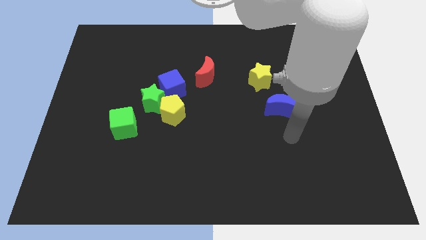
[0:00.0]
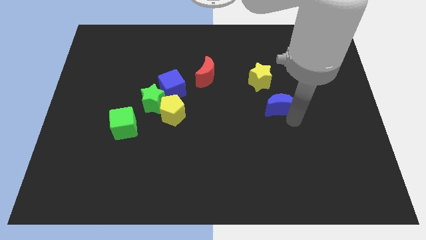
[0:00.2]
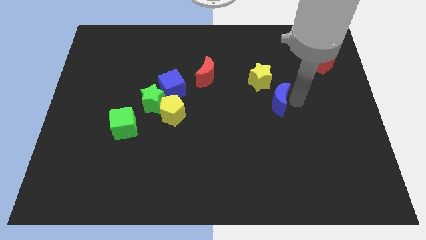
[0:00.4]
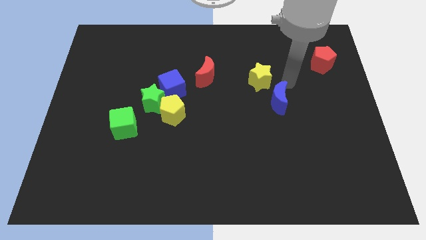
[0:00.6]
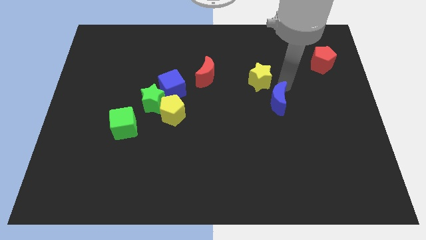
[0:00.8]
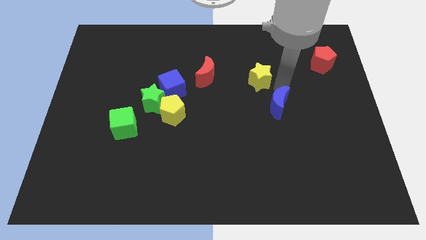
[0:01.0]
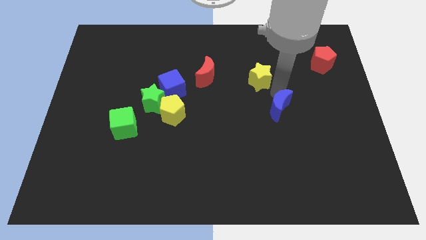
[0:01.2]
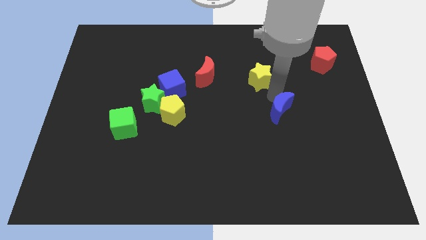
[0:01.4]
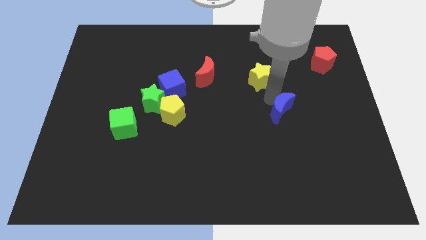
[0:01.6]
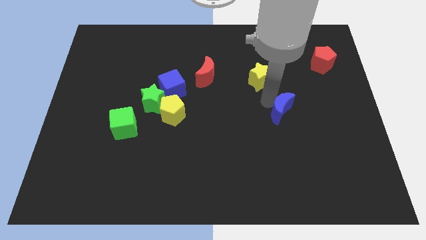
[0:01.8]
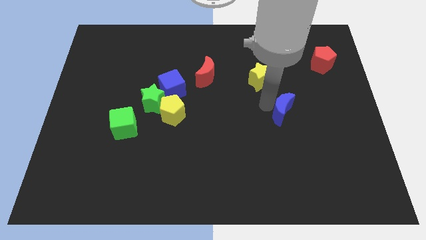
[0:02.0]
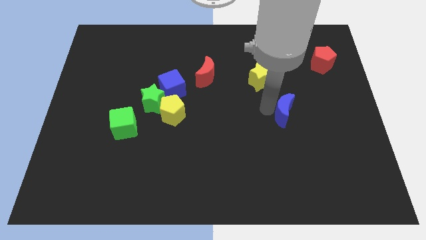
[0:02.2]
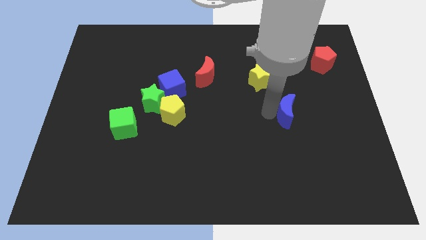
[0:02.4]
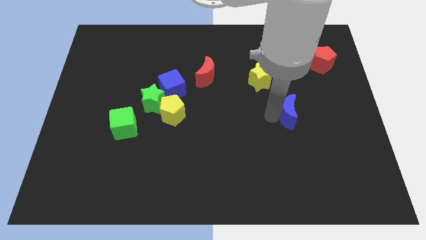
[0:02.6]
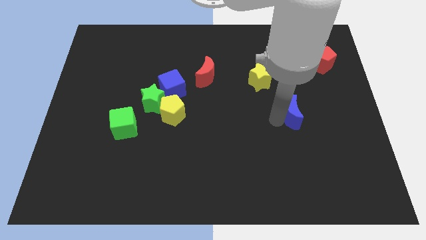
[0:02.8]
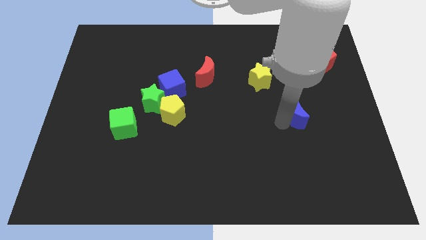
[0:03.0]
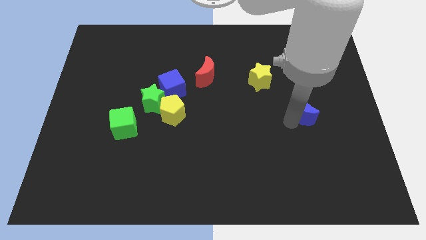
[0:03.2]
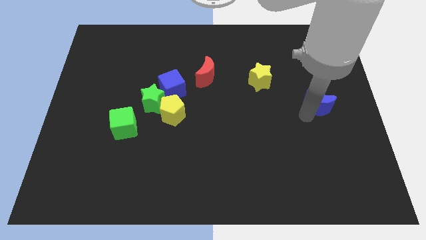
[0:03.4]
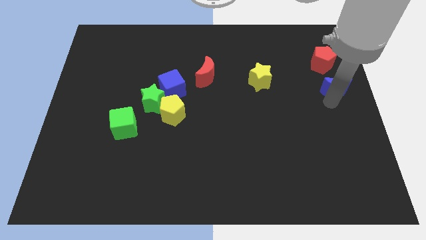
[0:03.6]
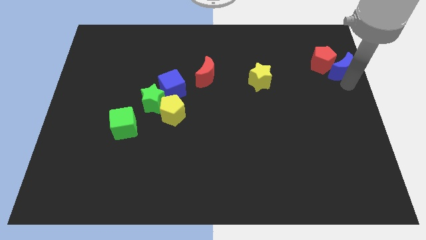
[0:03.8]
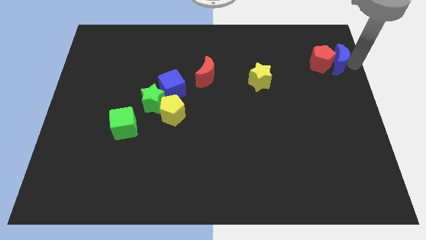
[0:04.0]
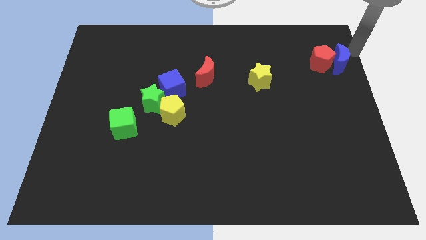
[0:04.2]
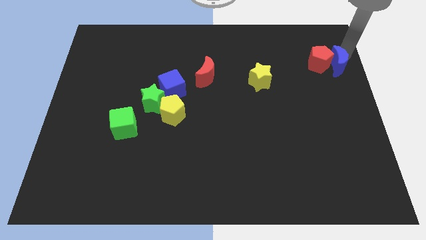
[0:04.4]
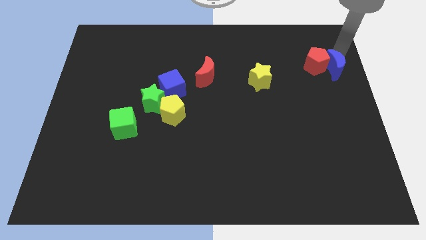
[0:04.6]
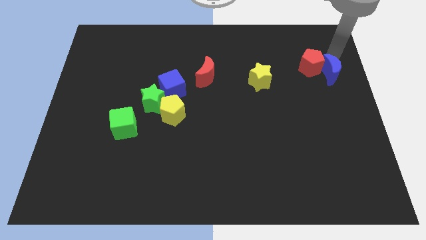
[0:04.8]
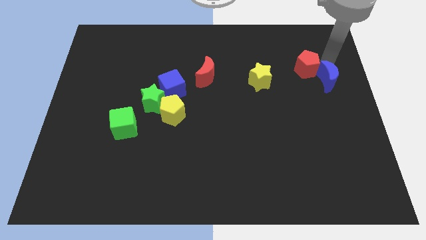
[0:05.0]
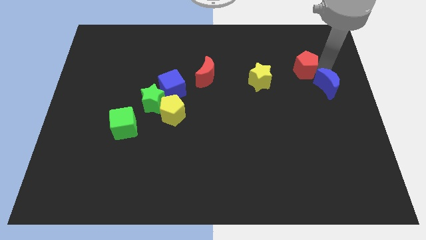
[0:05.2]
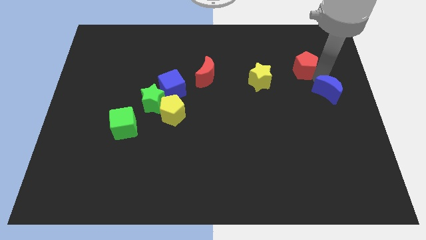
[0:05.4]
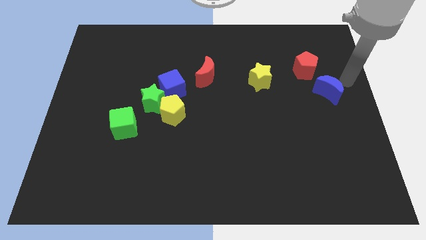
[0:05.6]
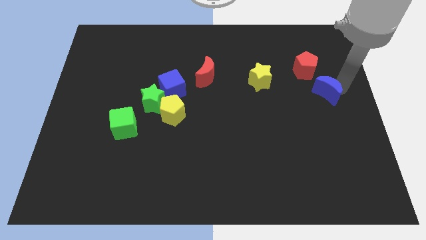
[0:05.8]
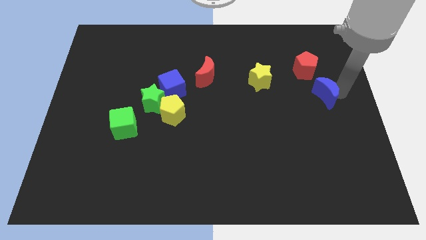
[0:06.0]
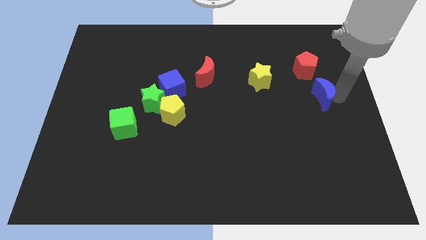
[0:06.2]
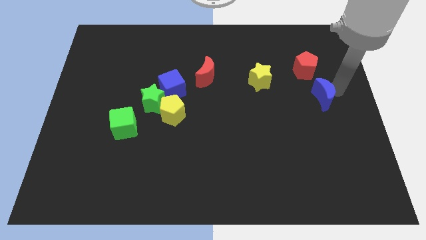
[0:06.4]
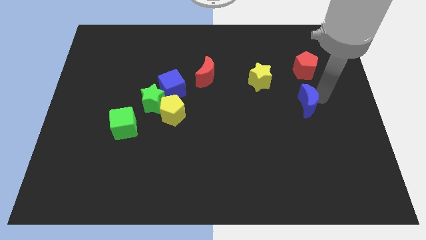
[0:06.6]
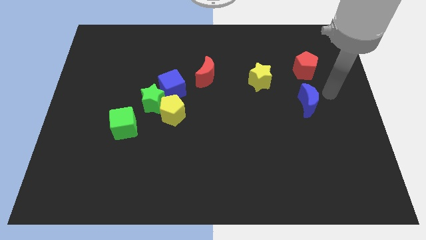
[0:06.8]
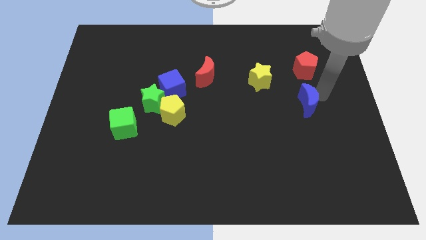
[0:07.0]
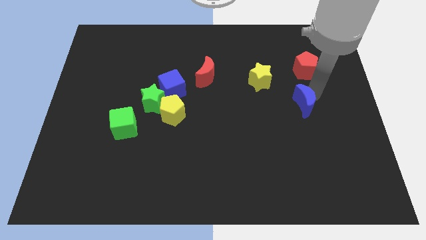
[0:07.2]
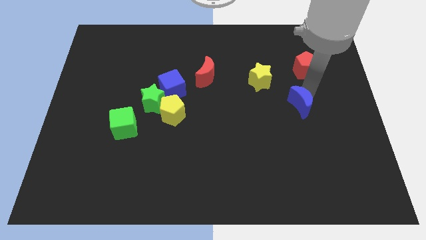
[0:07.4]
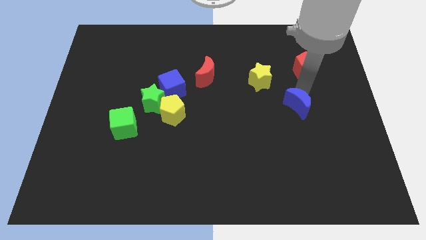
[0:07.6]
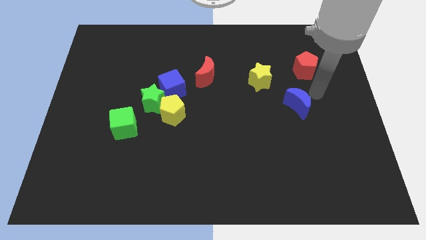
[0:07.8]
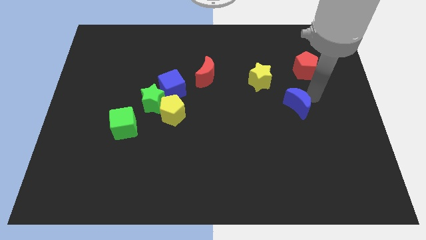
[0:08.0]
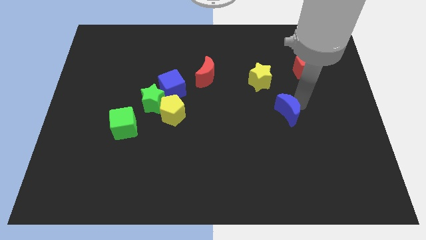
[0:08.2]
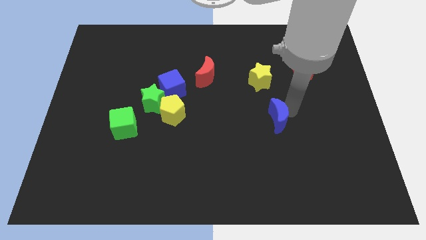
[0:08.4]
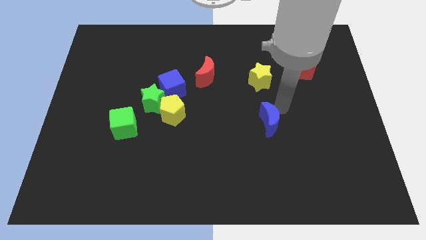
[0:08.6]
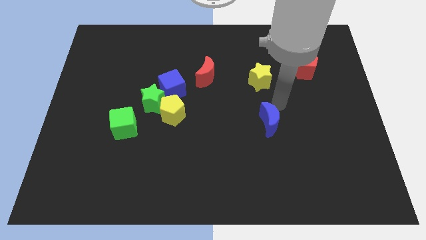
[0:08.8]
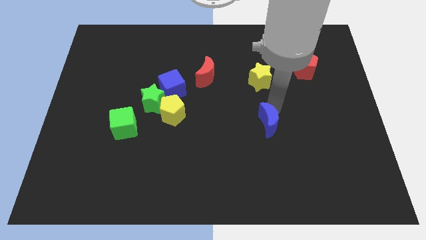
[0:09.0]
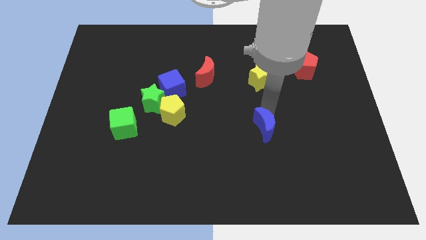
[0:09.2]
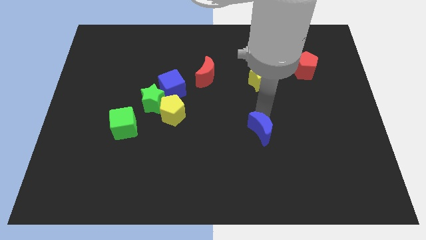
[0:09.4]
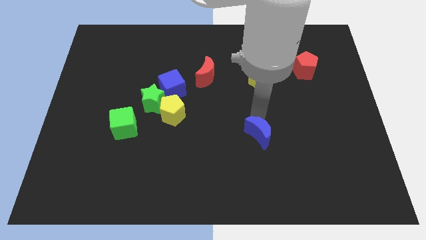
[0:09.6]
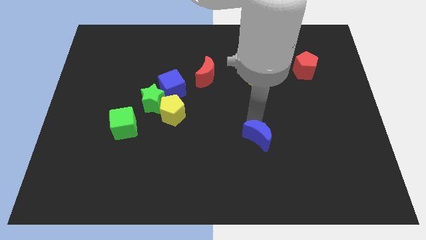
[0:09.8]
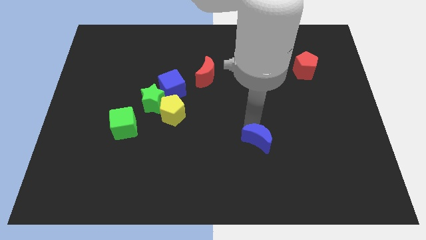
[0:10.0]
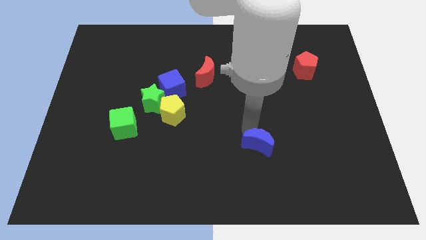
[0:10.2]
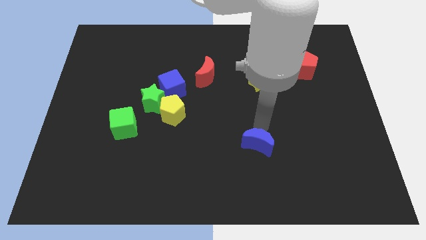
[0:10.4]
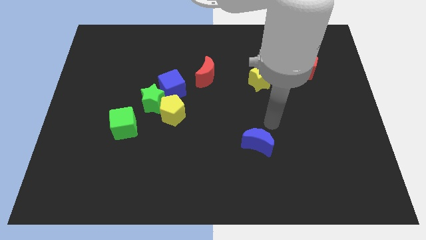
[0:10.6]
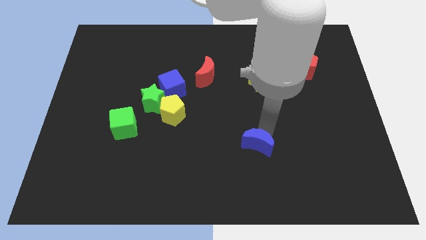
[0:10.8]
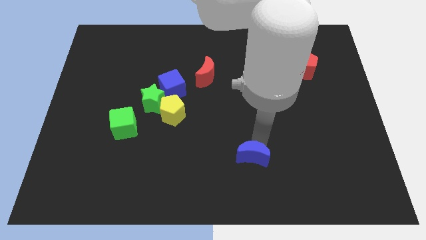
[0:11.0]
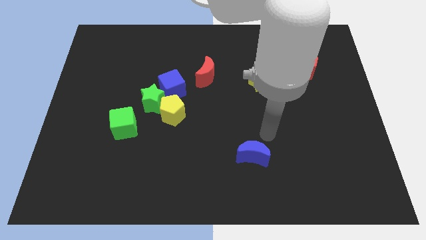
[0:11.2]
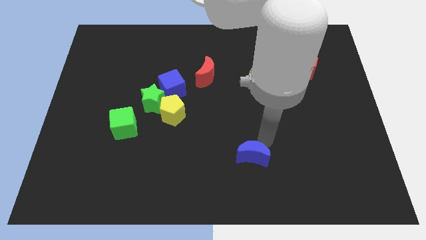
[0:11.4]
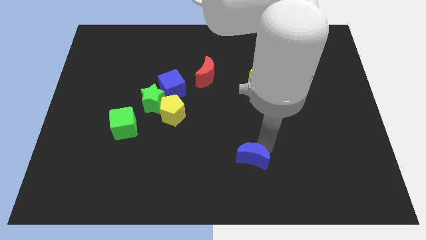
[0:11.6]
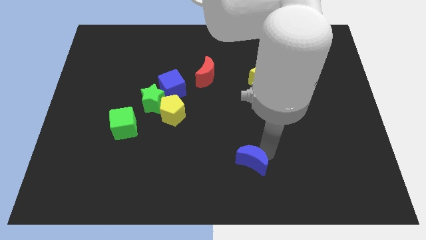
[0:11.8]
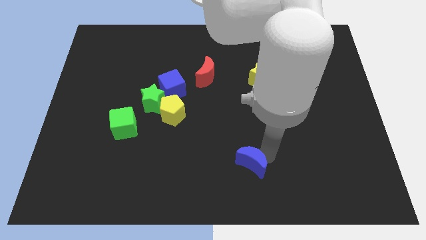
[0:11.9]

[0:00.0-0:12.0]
move the blue moon to the bottom

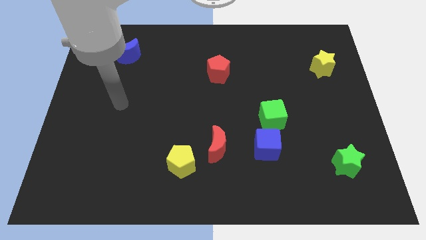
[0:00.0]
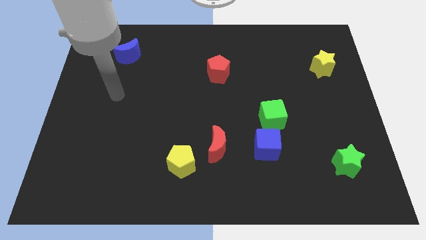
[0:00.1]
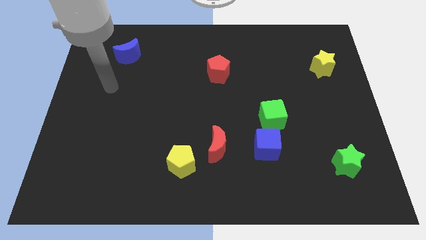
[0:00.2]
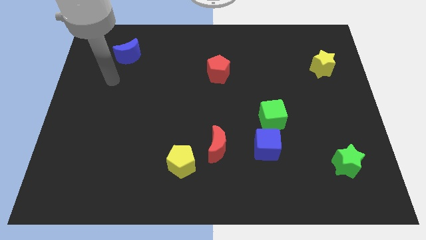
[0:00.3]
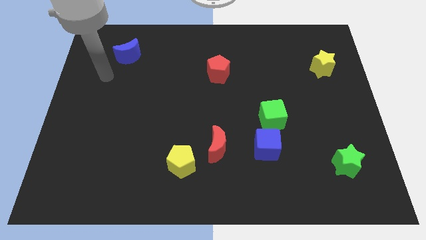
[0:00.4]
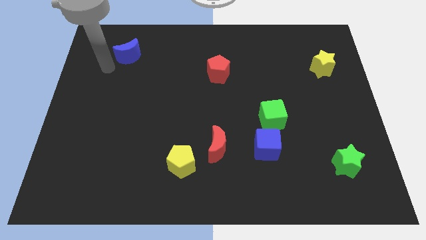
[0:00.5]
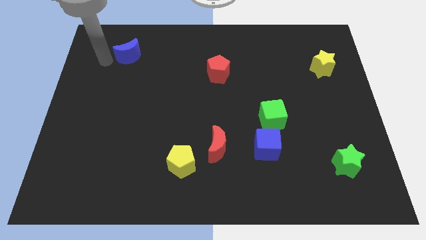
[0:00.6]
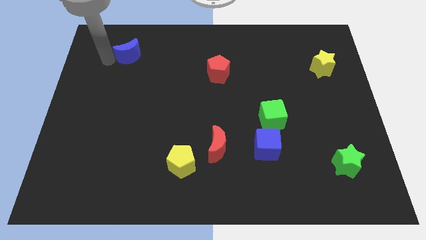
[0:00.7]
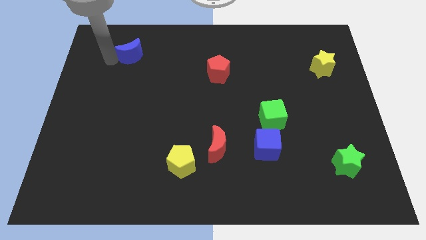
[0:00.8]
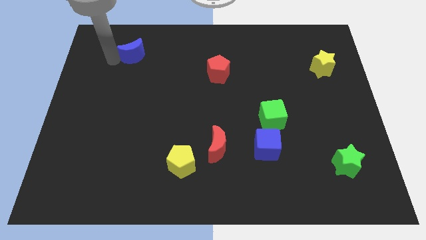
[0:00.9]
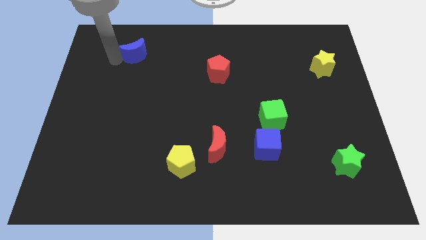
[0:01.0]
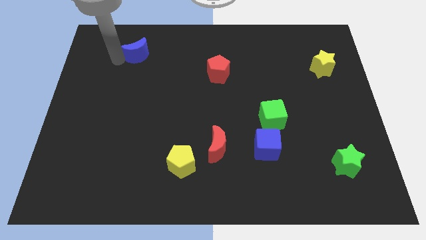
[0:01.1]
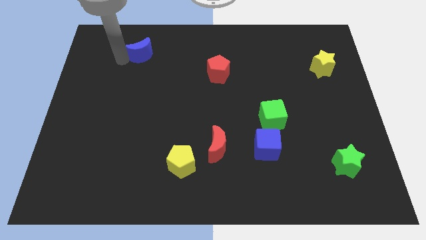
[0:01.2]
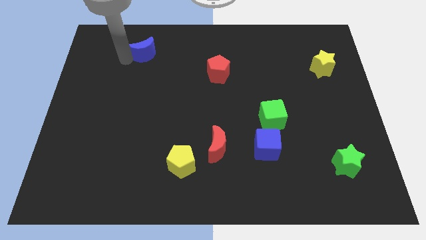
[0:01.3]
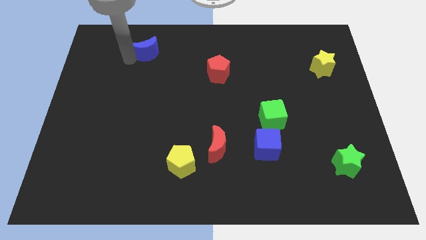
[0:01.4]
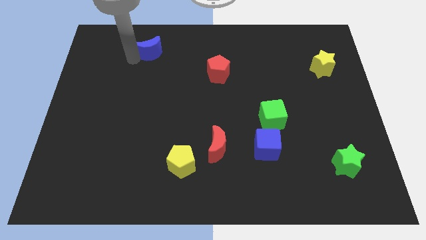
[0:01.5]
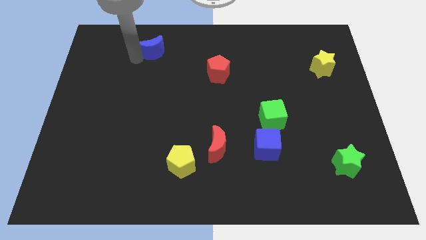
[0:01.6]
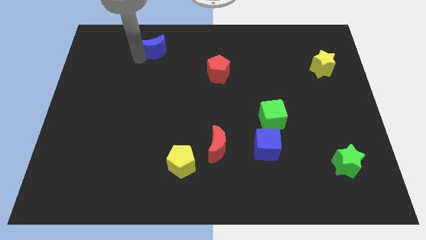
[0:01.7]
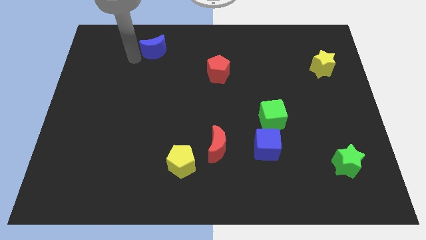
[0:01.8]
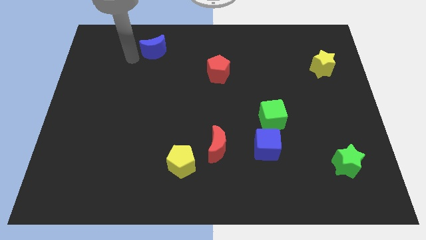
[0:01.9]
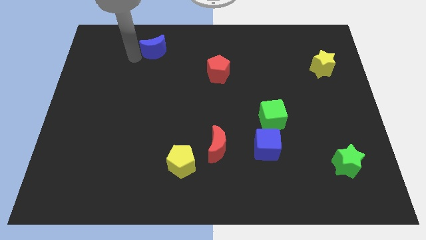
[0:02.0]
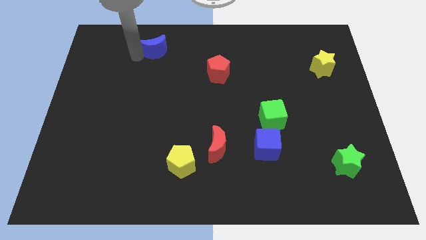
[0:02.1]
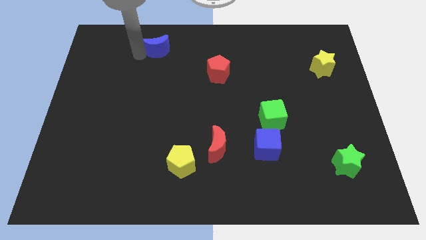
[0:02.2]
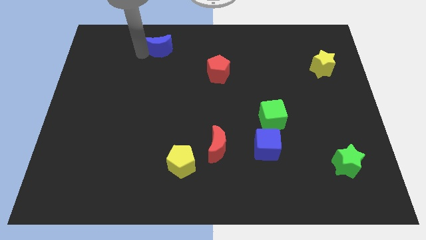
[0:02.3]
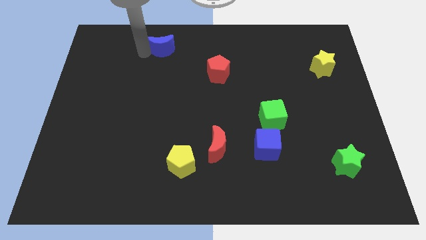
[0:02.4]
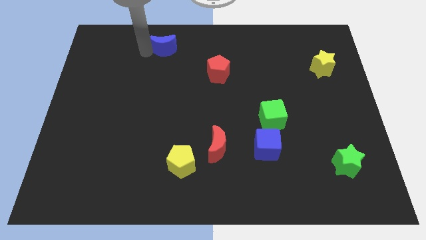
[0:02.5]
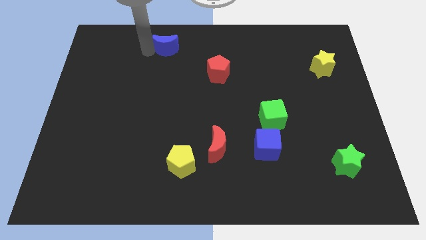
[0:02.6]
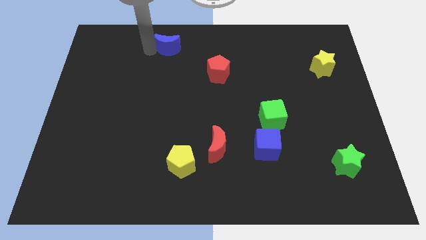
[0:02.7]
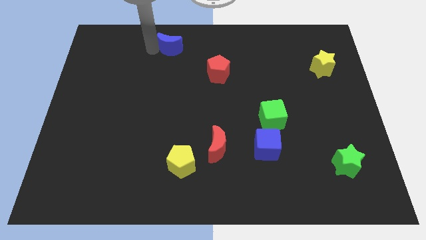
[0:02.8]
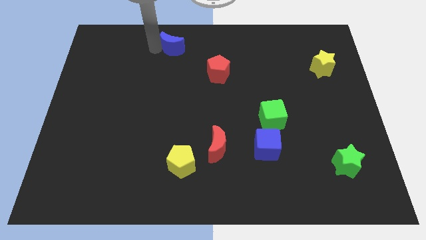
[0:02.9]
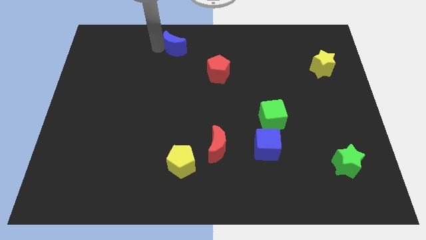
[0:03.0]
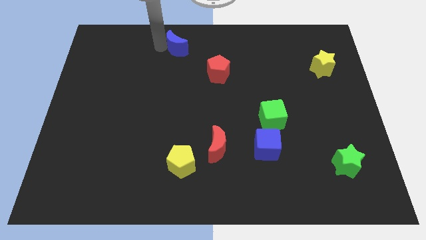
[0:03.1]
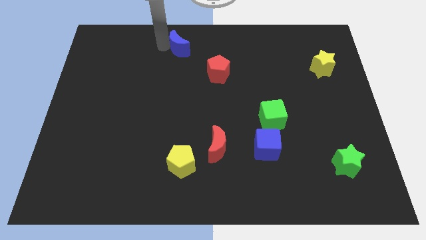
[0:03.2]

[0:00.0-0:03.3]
put the blue moon to the top
